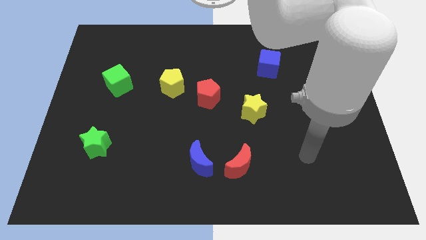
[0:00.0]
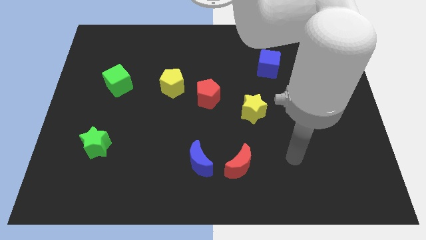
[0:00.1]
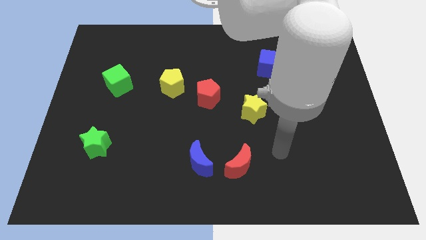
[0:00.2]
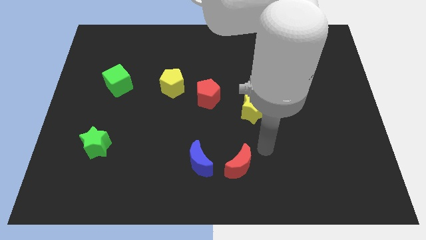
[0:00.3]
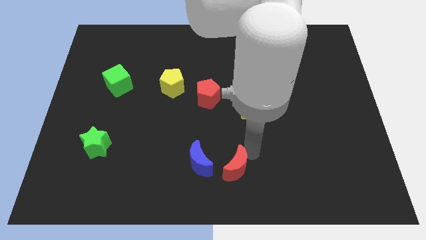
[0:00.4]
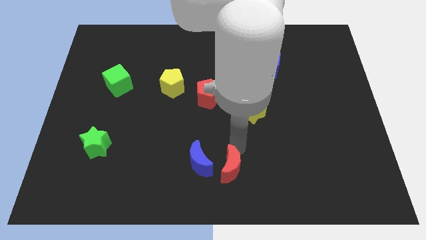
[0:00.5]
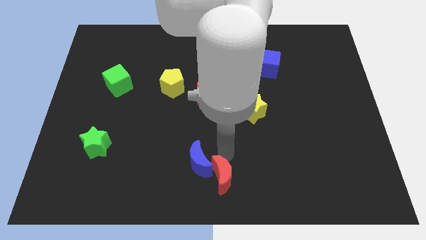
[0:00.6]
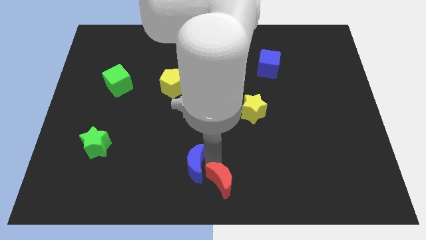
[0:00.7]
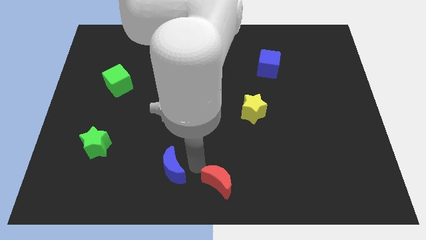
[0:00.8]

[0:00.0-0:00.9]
move the red moon away from the blue moon

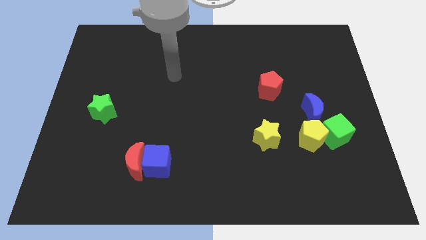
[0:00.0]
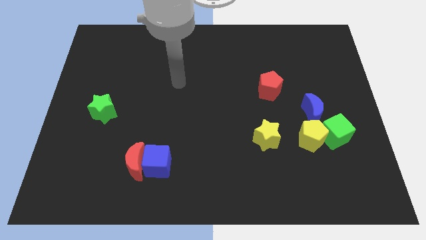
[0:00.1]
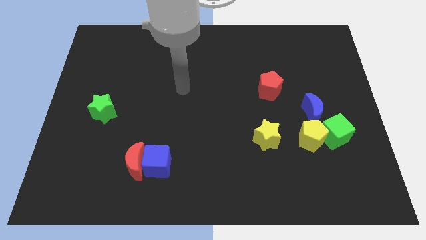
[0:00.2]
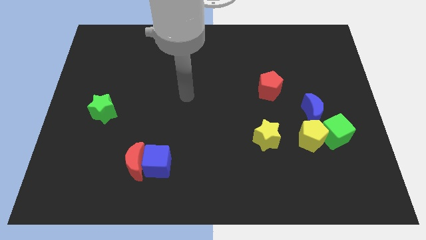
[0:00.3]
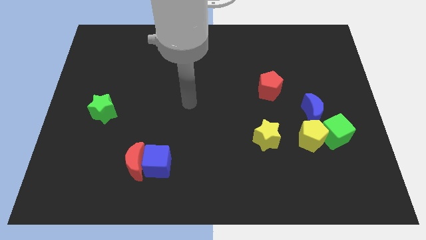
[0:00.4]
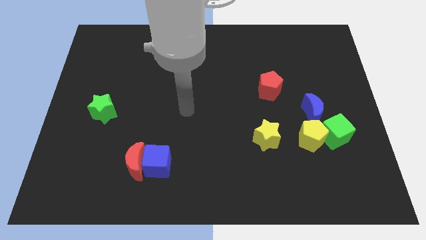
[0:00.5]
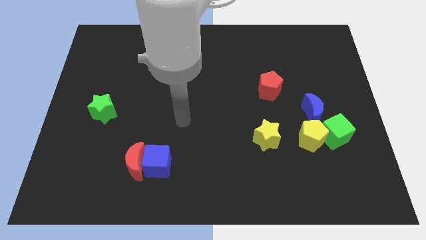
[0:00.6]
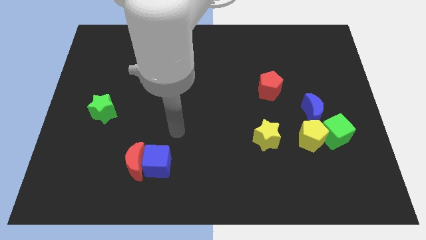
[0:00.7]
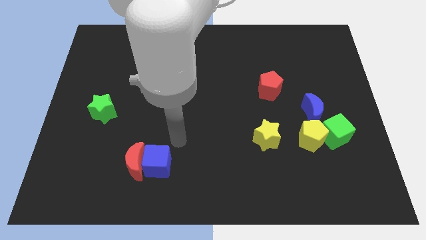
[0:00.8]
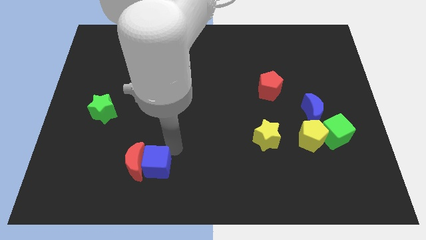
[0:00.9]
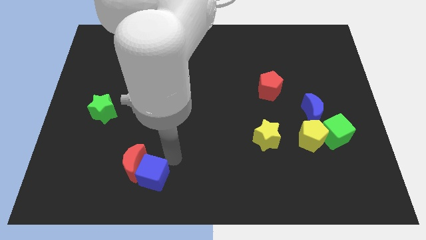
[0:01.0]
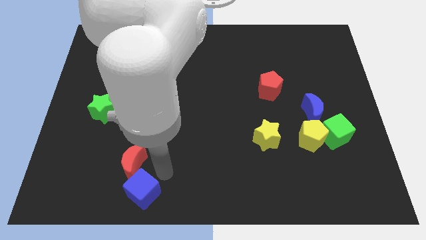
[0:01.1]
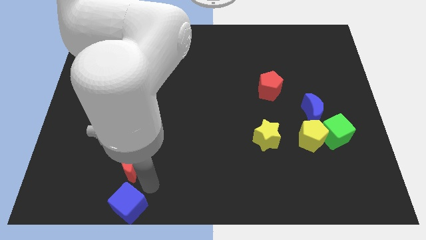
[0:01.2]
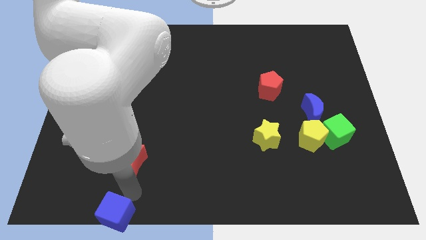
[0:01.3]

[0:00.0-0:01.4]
separate the red moon from the blue cube

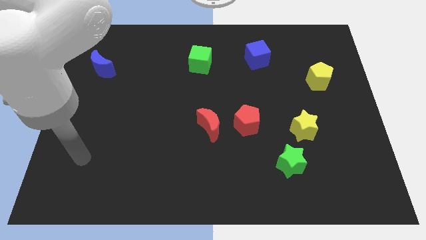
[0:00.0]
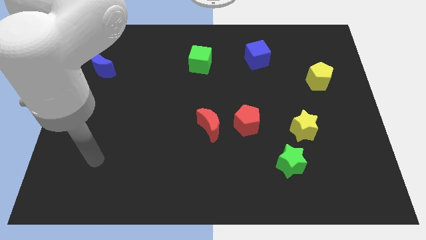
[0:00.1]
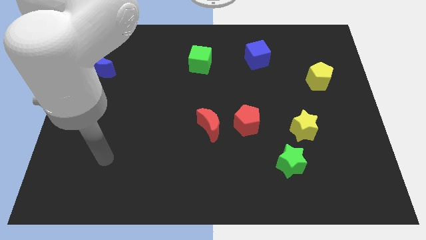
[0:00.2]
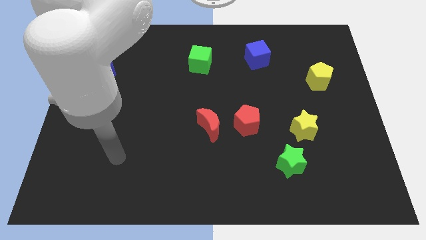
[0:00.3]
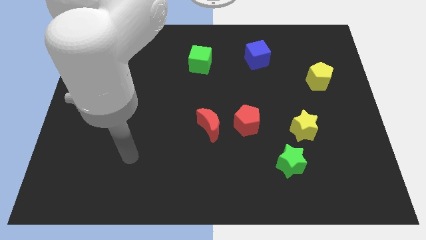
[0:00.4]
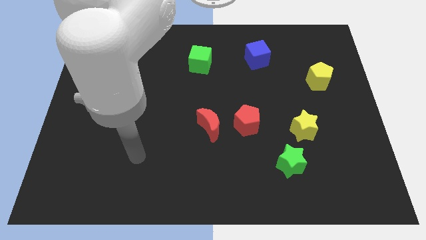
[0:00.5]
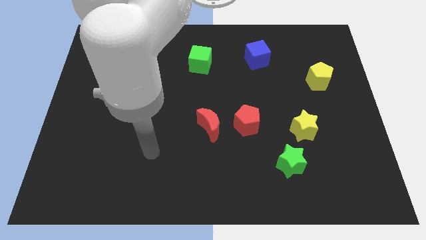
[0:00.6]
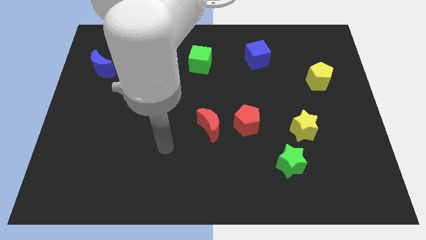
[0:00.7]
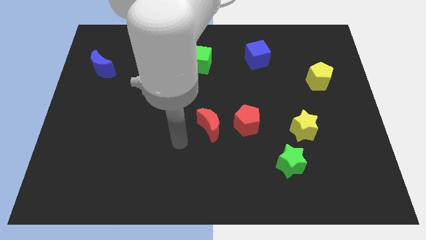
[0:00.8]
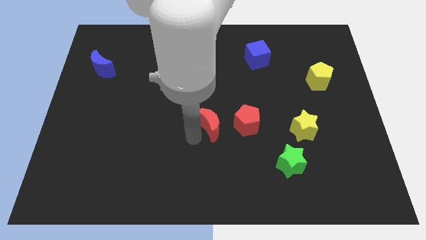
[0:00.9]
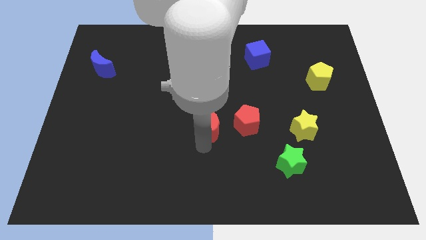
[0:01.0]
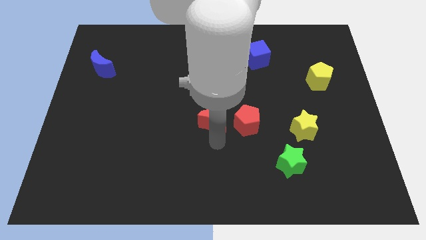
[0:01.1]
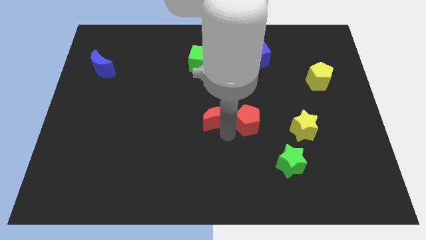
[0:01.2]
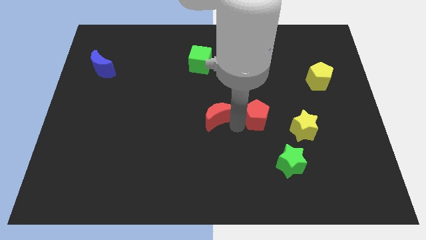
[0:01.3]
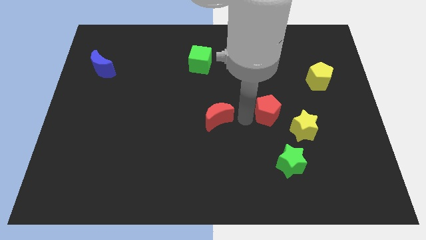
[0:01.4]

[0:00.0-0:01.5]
separate the red moon from the red pentagon

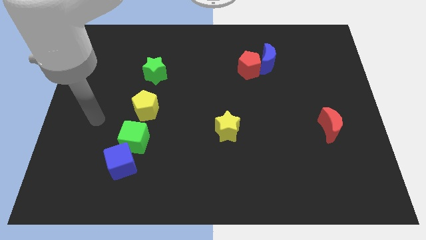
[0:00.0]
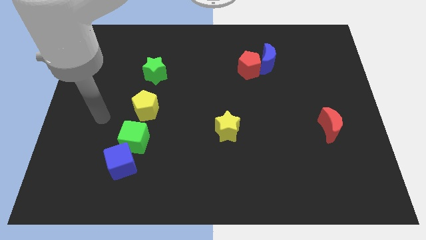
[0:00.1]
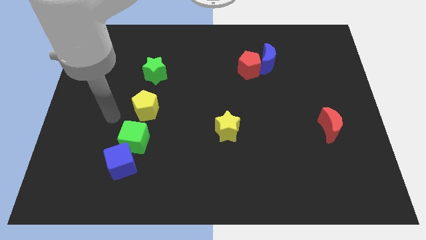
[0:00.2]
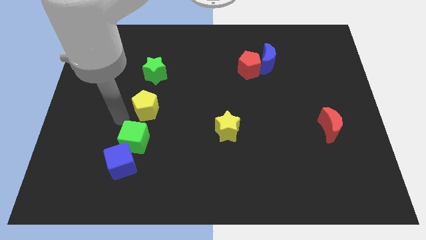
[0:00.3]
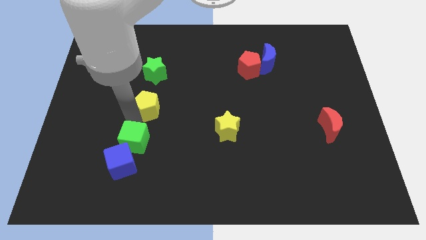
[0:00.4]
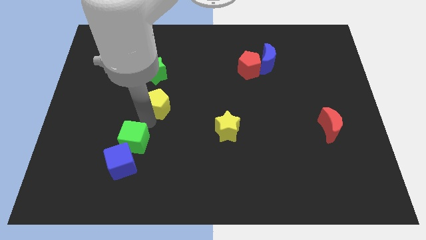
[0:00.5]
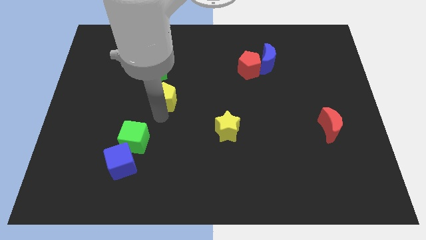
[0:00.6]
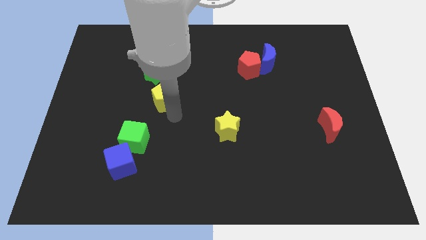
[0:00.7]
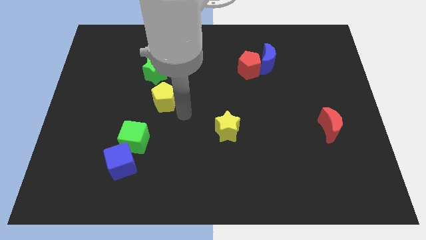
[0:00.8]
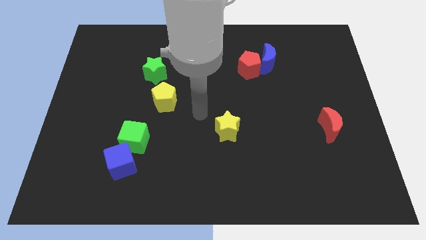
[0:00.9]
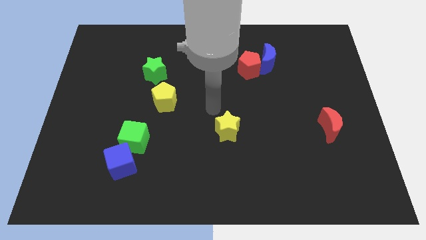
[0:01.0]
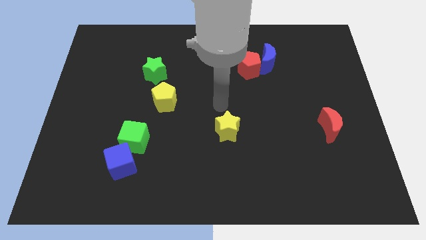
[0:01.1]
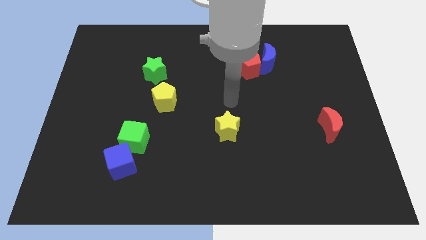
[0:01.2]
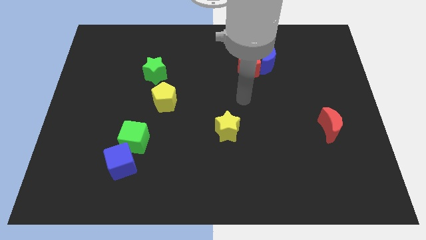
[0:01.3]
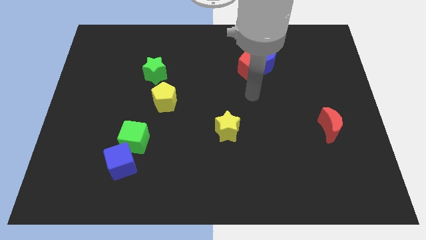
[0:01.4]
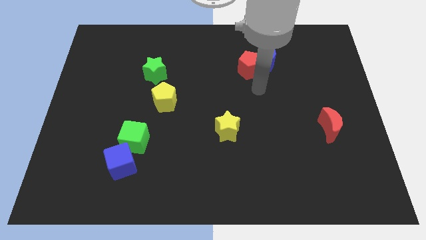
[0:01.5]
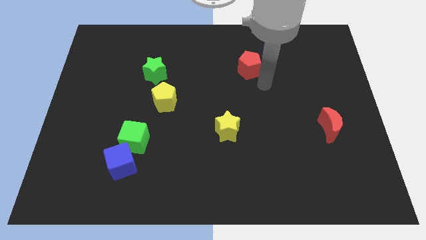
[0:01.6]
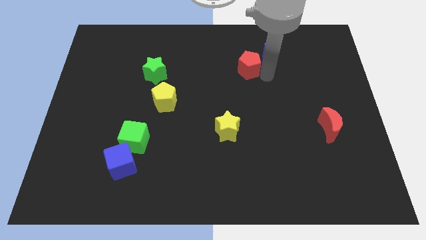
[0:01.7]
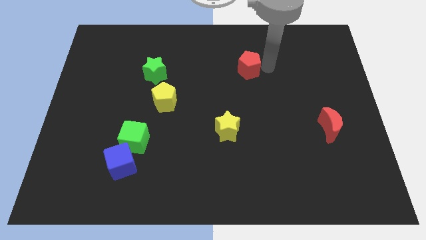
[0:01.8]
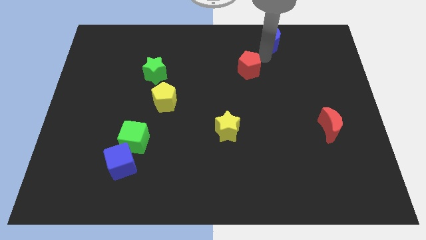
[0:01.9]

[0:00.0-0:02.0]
move the red pentagon away from the blue moon

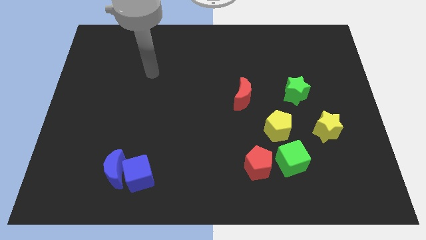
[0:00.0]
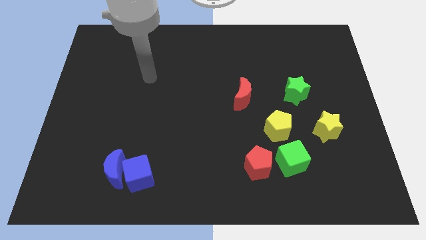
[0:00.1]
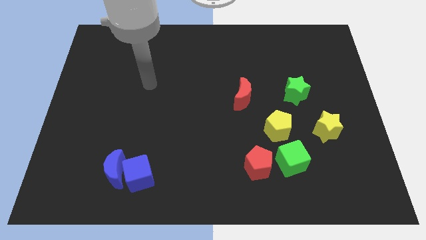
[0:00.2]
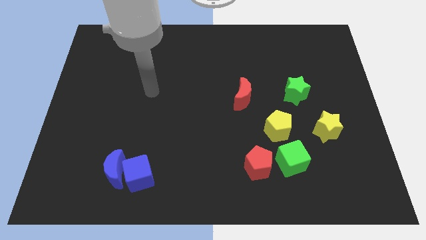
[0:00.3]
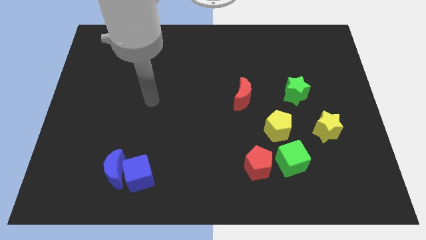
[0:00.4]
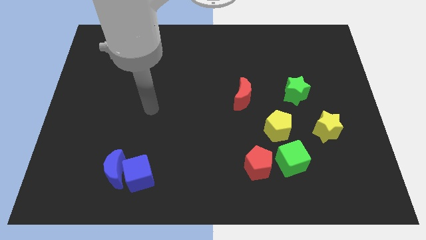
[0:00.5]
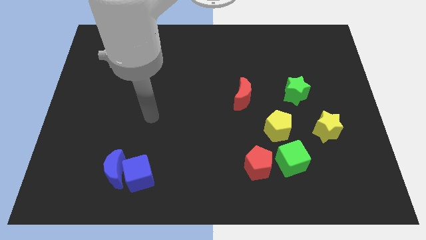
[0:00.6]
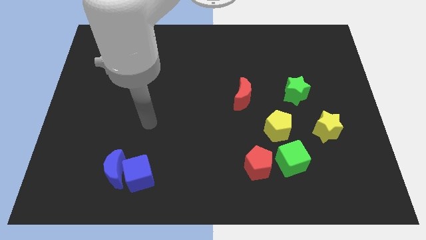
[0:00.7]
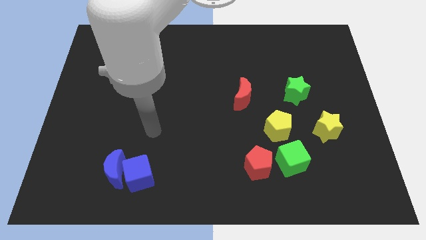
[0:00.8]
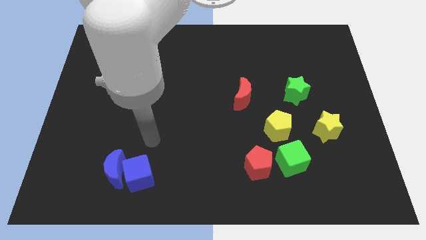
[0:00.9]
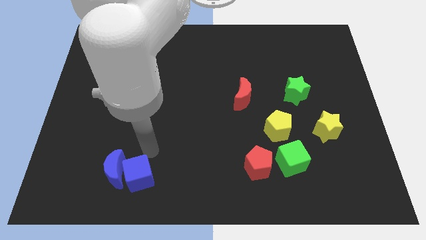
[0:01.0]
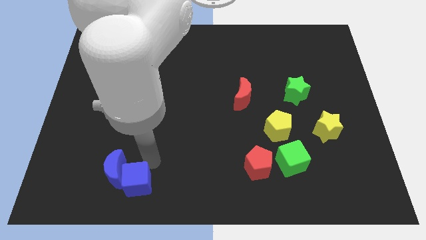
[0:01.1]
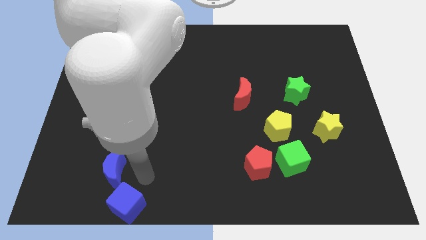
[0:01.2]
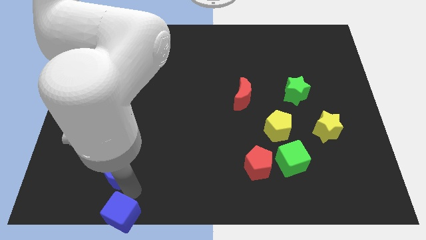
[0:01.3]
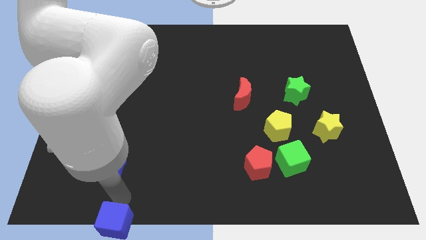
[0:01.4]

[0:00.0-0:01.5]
separate the blue moon from the blue cube

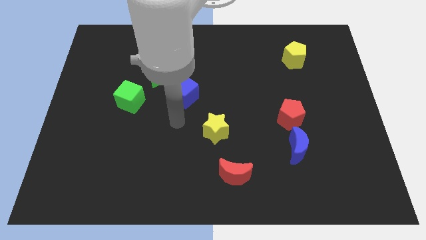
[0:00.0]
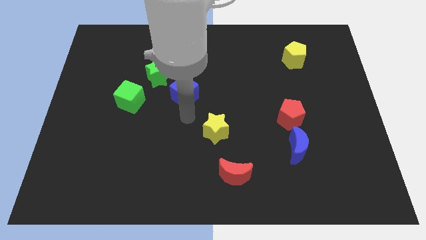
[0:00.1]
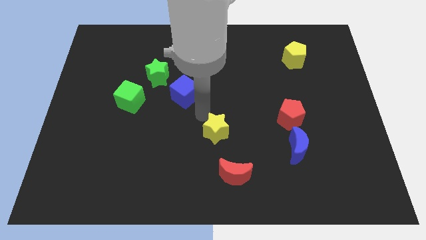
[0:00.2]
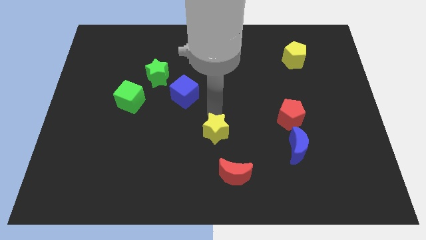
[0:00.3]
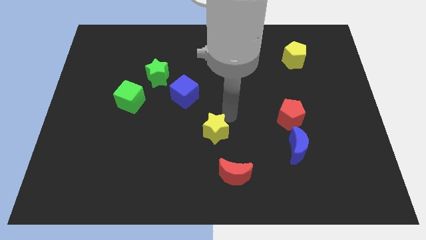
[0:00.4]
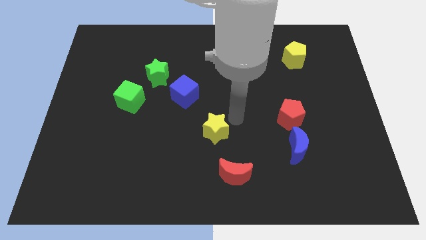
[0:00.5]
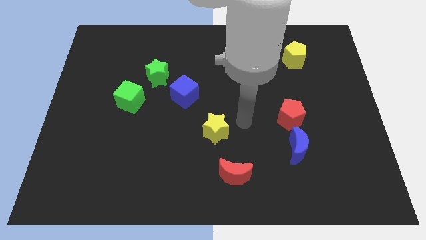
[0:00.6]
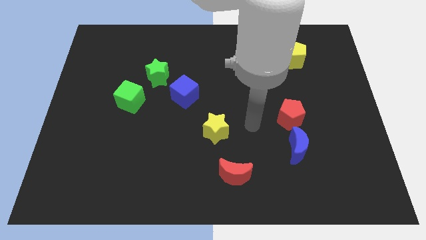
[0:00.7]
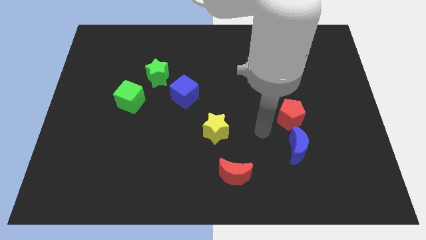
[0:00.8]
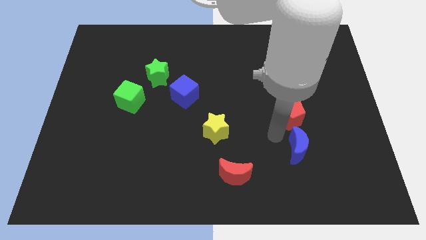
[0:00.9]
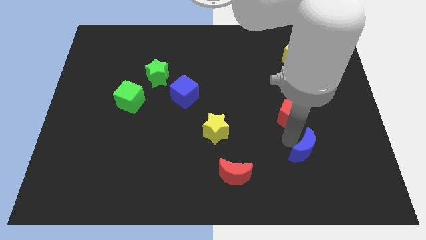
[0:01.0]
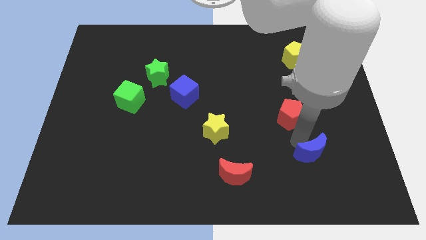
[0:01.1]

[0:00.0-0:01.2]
separate the red pentagon from the blue moon

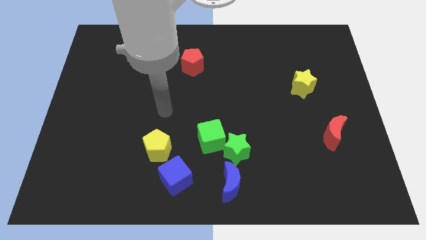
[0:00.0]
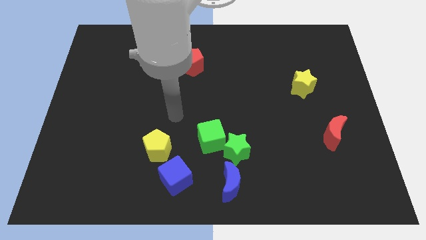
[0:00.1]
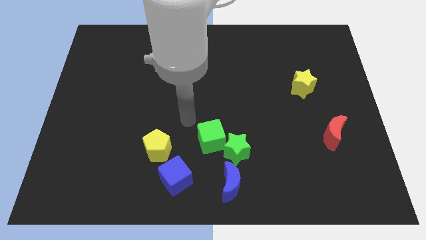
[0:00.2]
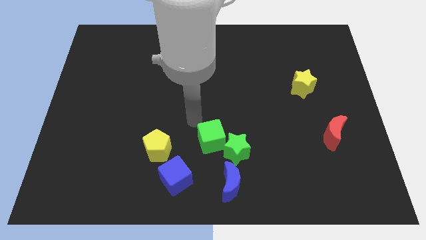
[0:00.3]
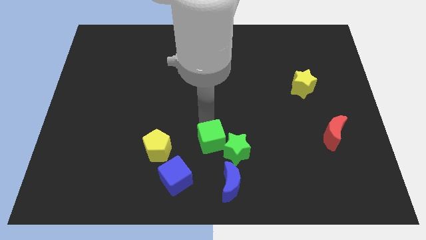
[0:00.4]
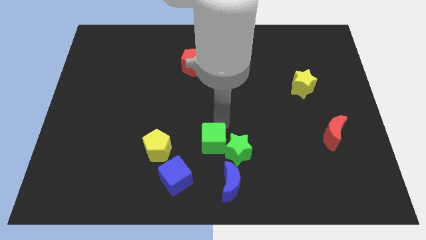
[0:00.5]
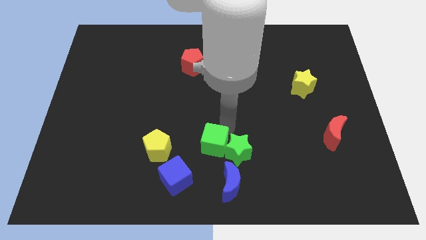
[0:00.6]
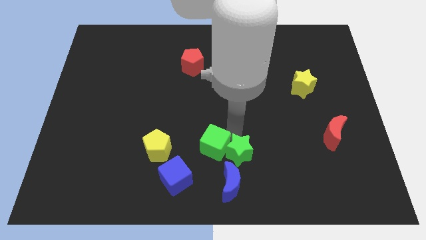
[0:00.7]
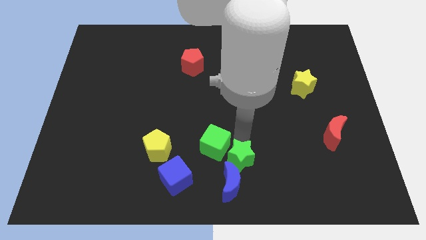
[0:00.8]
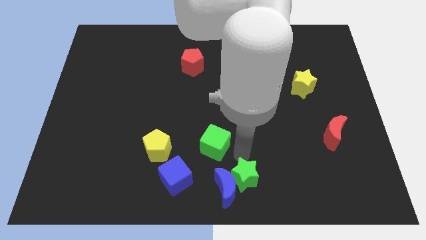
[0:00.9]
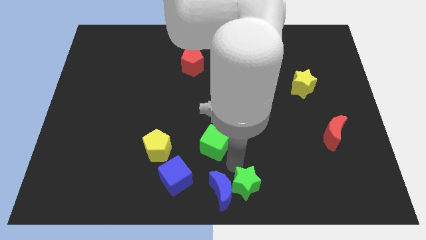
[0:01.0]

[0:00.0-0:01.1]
pull the green cube apart from the green star
